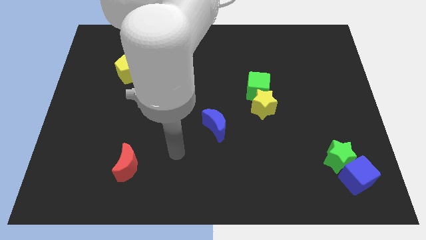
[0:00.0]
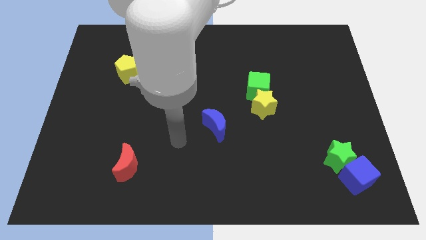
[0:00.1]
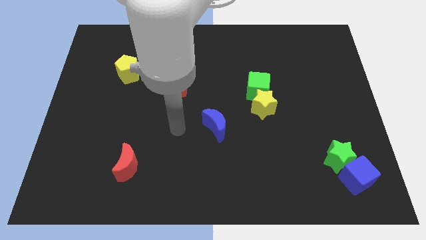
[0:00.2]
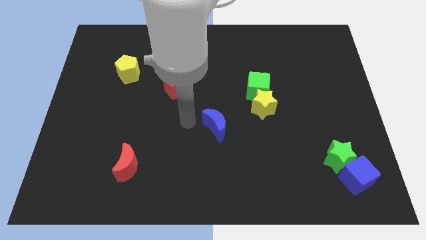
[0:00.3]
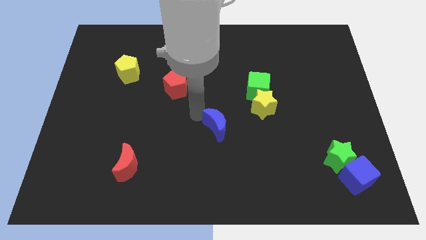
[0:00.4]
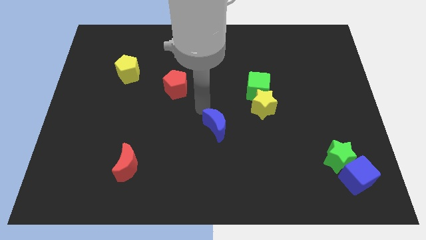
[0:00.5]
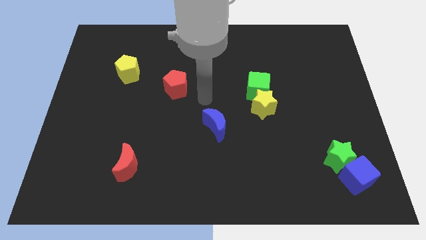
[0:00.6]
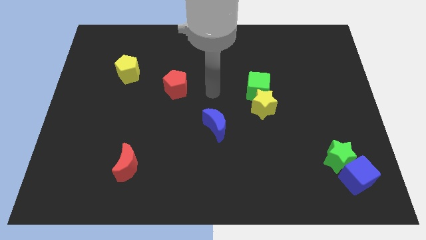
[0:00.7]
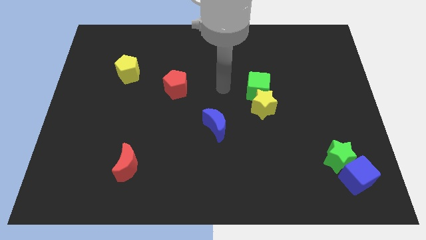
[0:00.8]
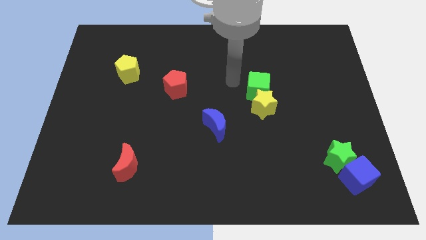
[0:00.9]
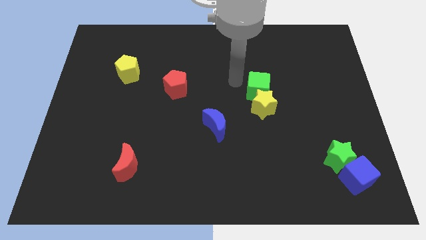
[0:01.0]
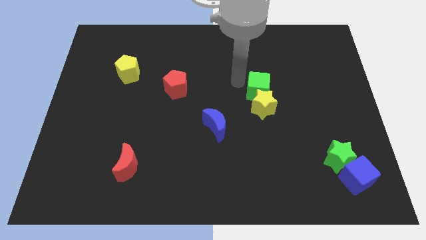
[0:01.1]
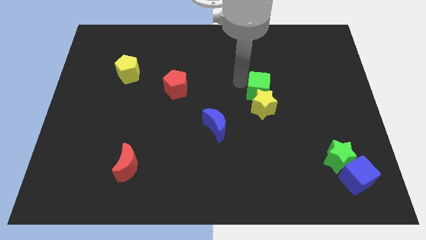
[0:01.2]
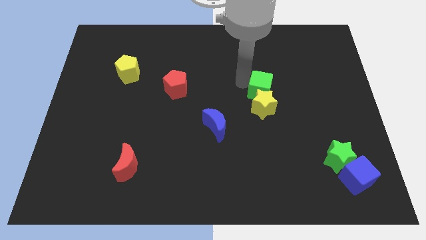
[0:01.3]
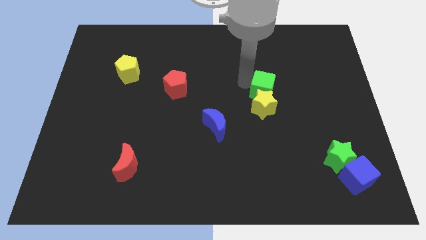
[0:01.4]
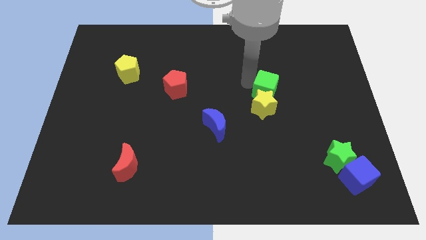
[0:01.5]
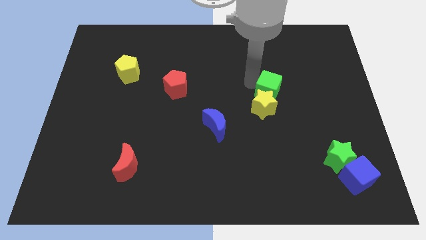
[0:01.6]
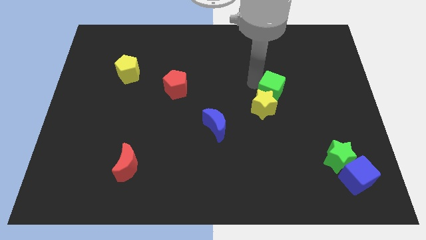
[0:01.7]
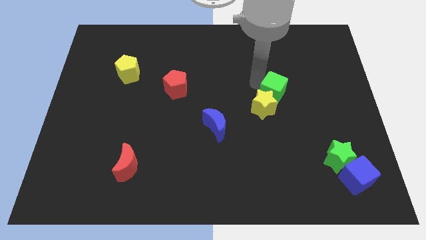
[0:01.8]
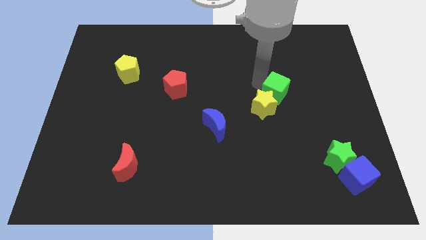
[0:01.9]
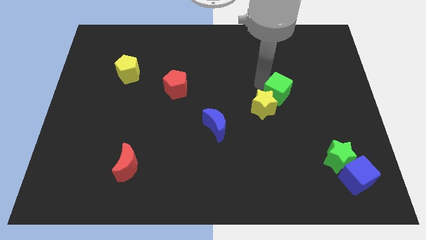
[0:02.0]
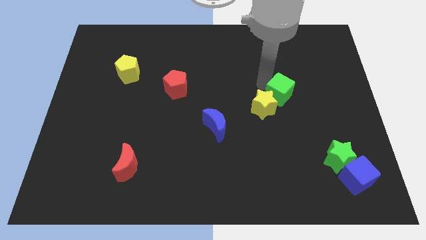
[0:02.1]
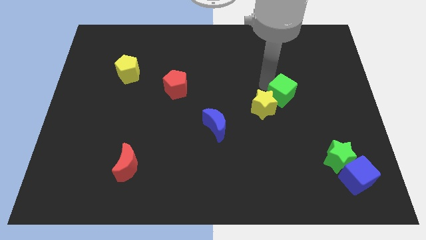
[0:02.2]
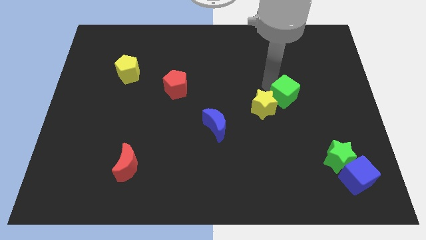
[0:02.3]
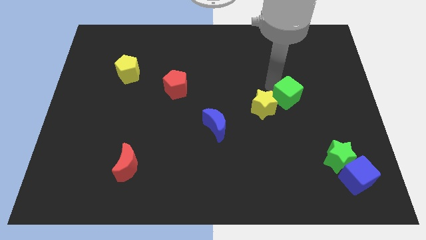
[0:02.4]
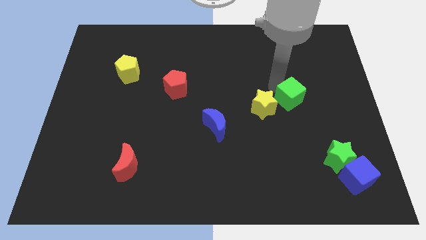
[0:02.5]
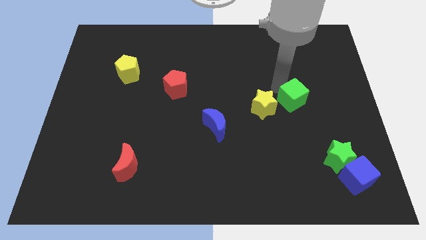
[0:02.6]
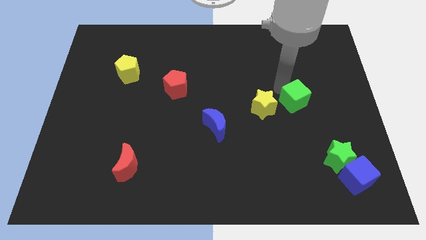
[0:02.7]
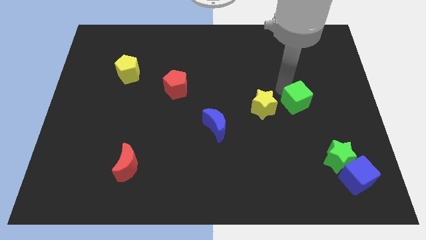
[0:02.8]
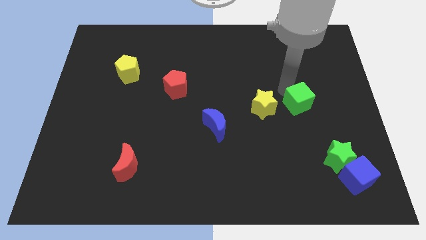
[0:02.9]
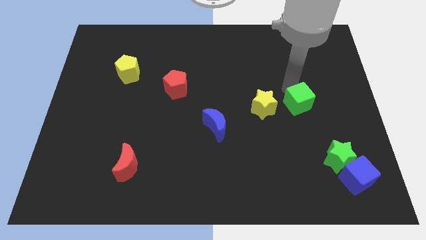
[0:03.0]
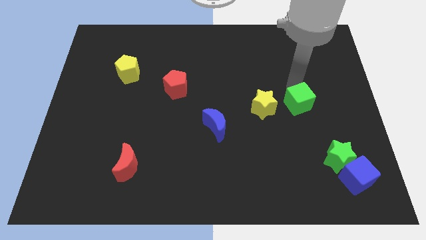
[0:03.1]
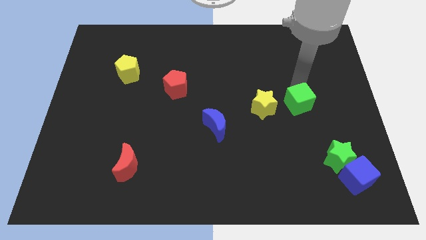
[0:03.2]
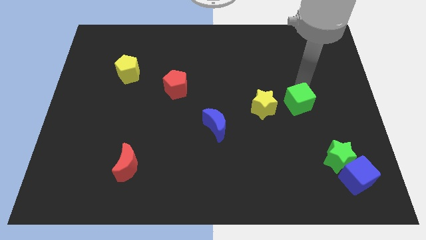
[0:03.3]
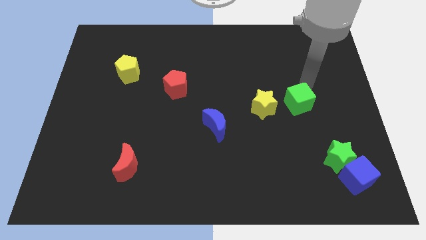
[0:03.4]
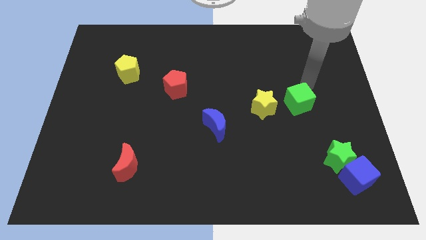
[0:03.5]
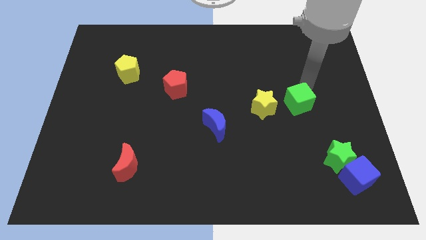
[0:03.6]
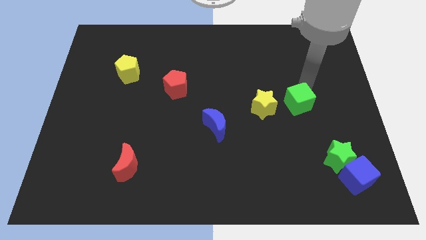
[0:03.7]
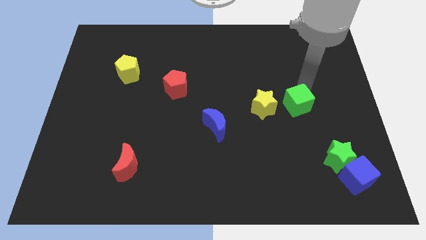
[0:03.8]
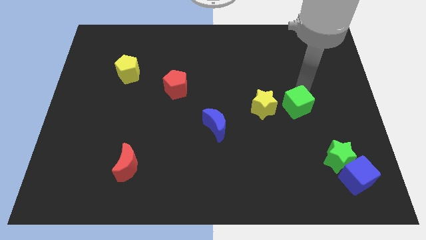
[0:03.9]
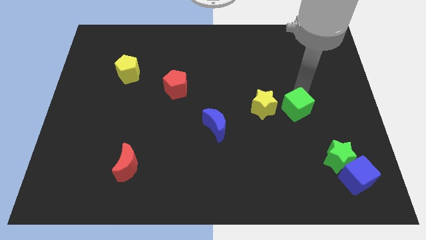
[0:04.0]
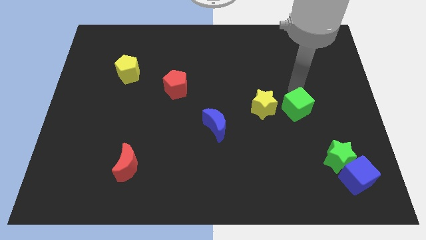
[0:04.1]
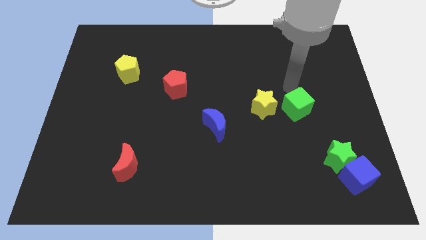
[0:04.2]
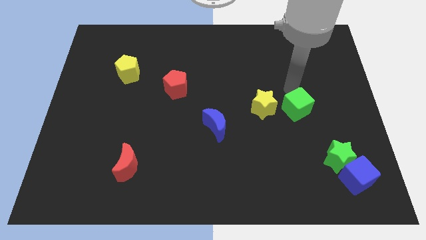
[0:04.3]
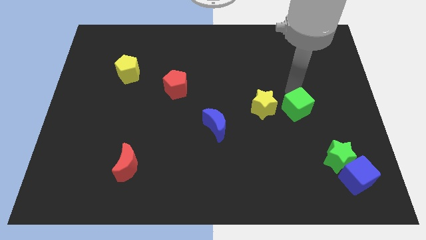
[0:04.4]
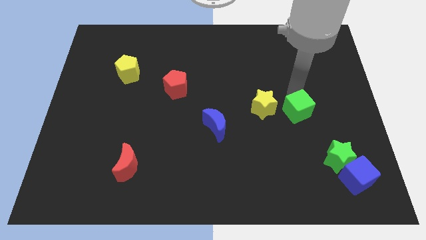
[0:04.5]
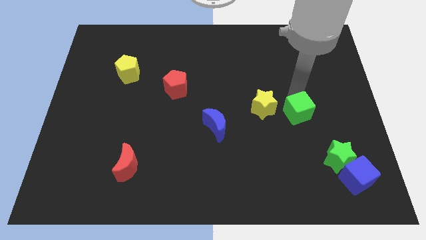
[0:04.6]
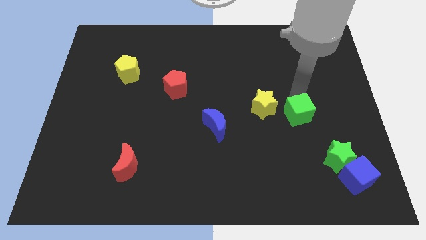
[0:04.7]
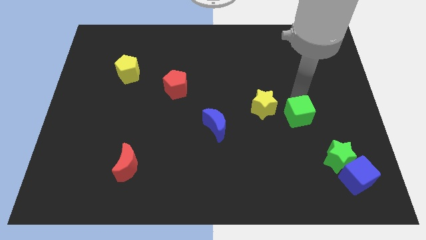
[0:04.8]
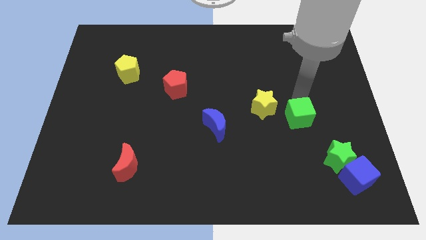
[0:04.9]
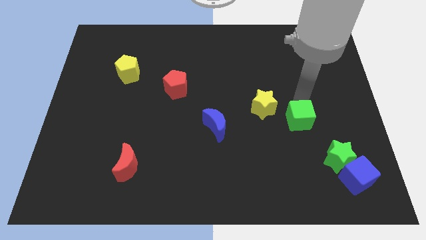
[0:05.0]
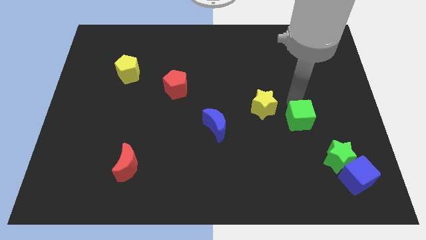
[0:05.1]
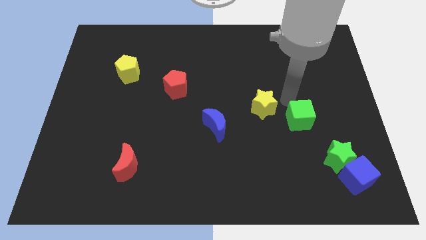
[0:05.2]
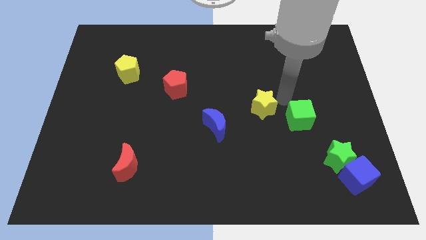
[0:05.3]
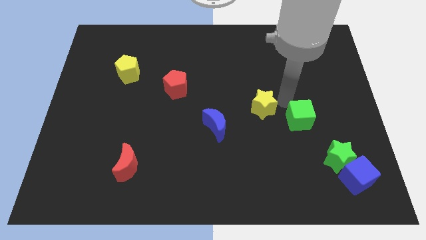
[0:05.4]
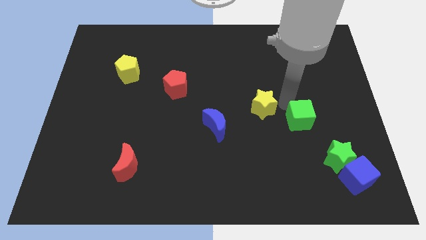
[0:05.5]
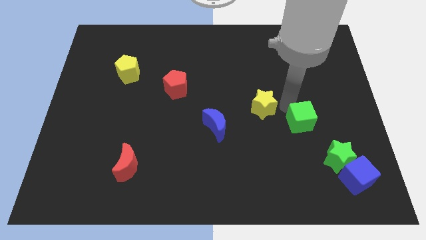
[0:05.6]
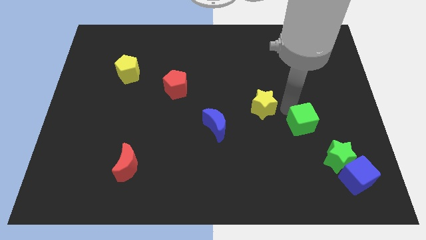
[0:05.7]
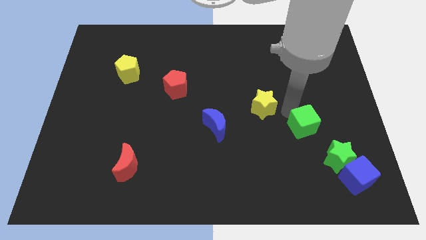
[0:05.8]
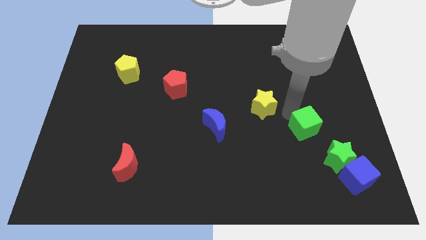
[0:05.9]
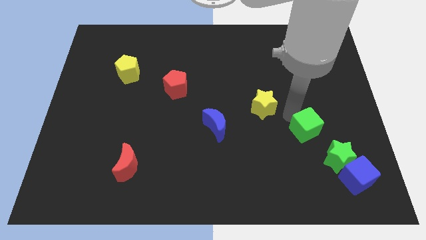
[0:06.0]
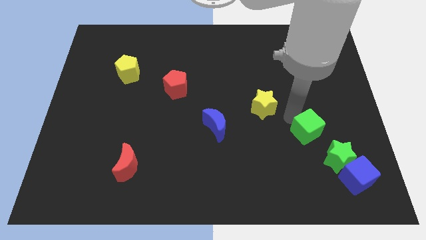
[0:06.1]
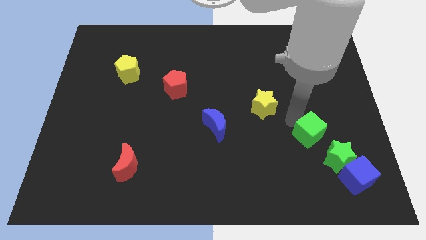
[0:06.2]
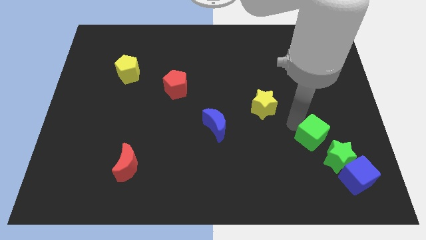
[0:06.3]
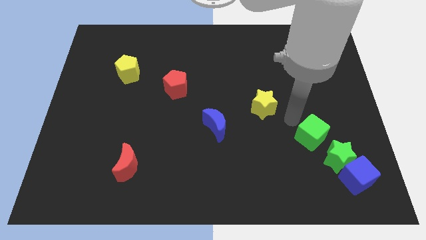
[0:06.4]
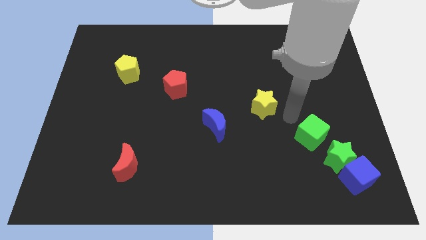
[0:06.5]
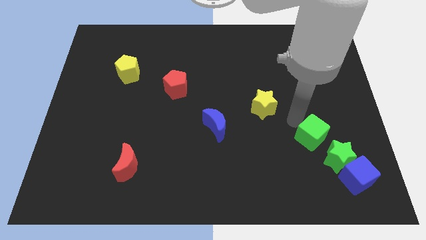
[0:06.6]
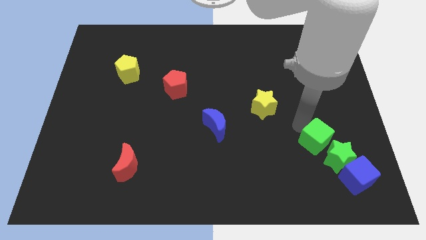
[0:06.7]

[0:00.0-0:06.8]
move the green cube close to the green star

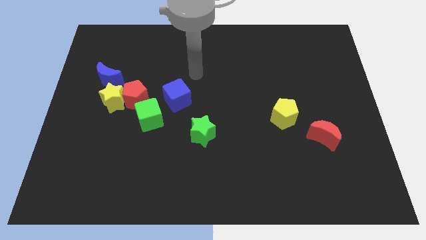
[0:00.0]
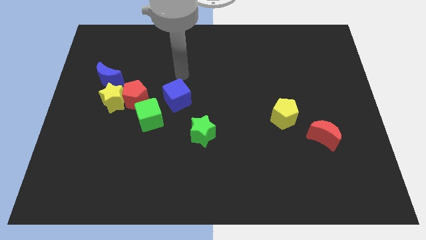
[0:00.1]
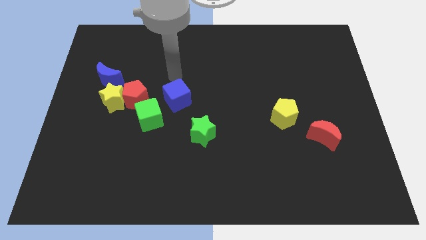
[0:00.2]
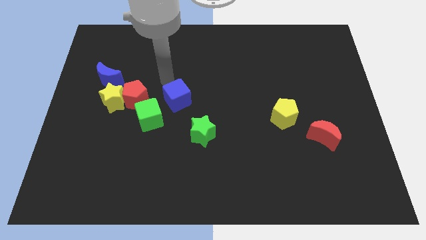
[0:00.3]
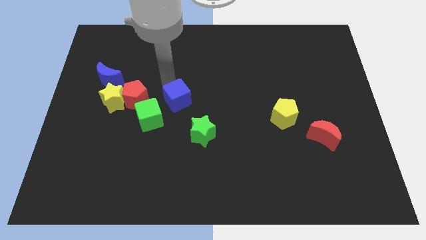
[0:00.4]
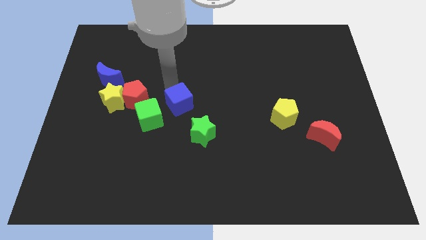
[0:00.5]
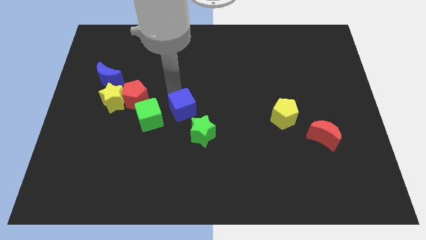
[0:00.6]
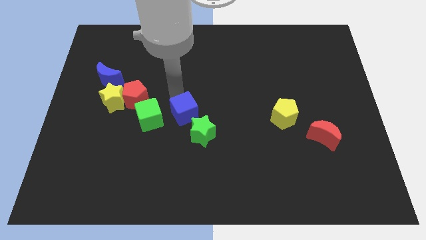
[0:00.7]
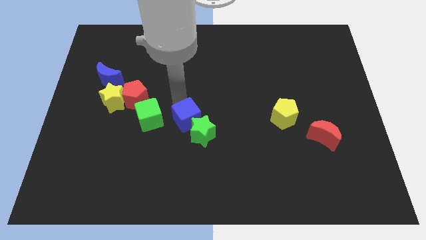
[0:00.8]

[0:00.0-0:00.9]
slide the blue cube towards the green star

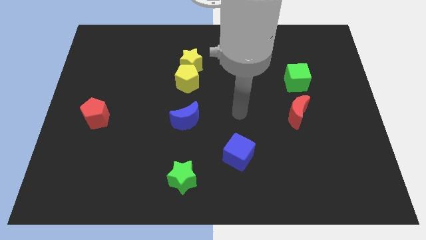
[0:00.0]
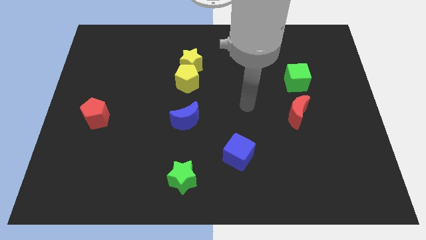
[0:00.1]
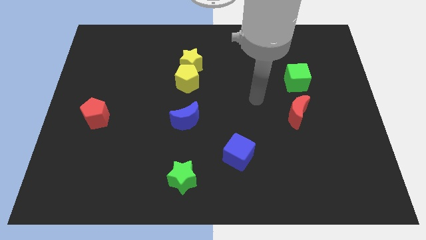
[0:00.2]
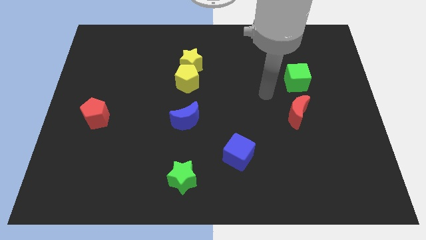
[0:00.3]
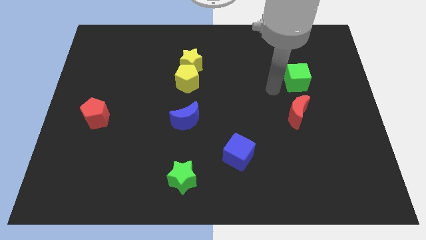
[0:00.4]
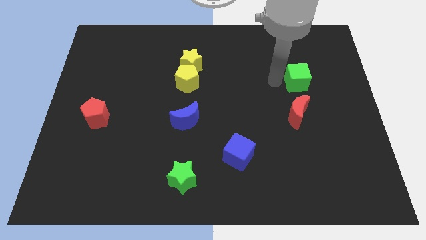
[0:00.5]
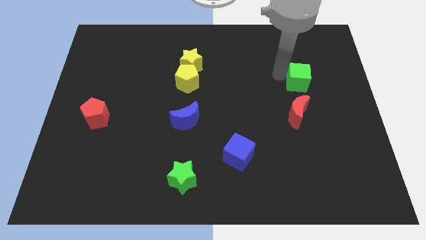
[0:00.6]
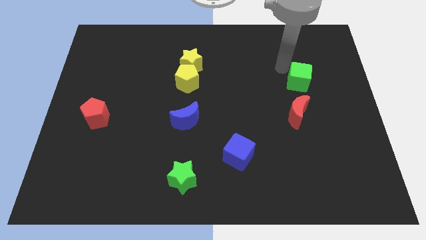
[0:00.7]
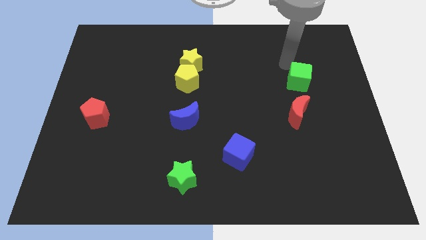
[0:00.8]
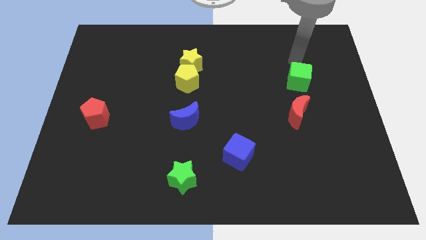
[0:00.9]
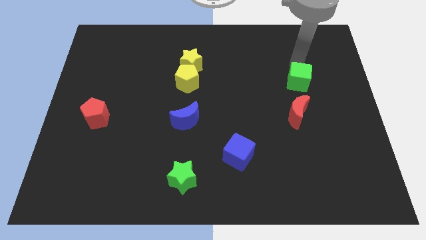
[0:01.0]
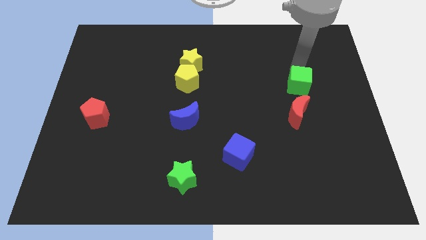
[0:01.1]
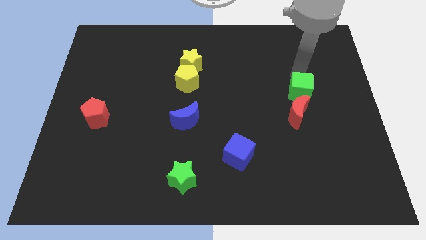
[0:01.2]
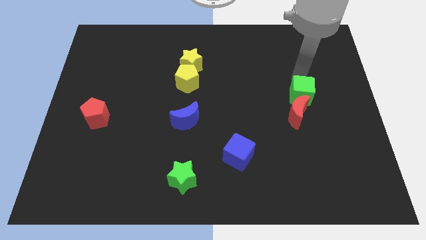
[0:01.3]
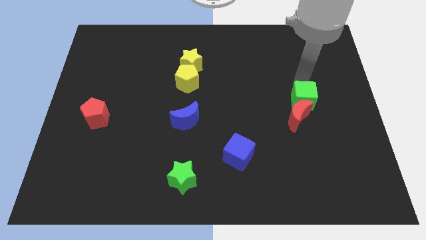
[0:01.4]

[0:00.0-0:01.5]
put the green cube close to the red moon
